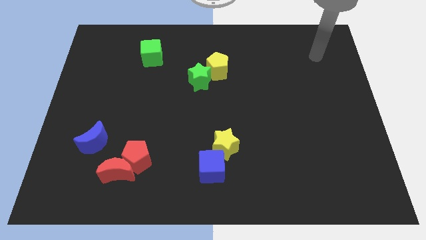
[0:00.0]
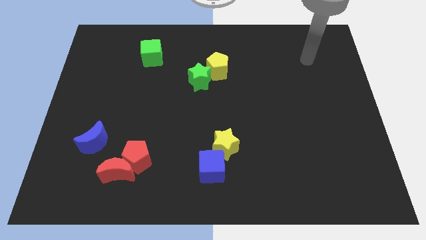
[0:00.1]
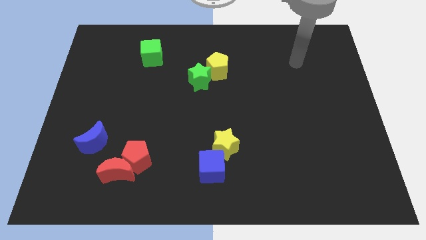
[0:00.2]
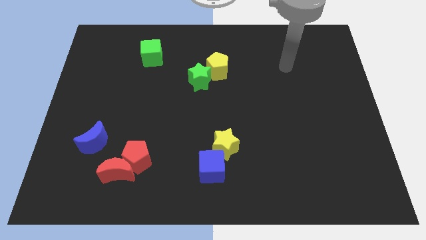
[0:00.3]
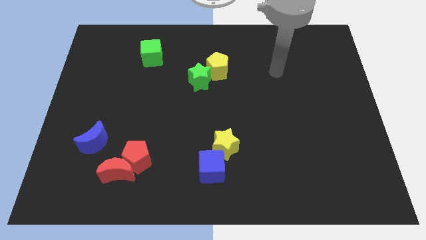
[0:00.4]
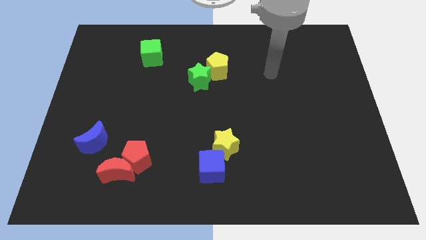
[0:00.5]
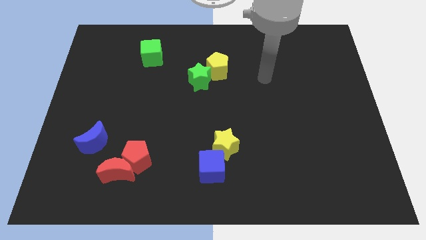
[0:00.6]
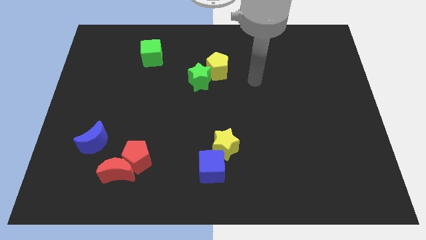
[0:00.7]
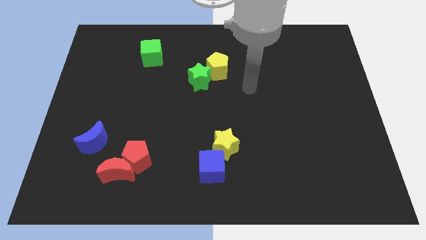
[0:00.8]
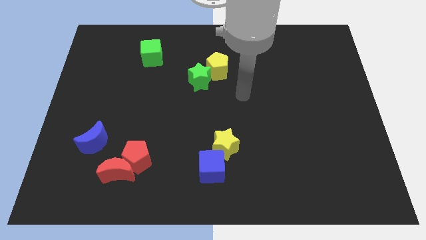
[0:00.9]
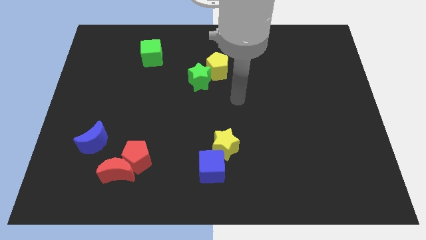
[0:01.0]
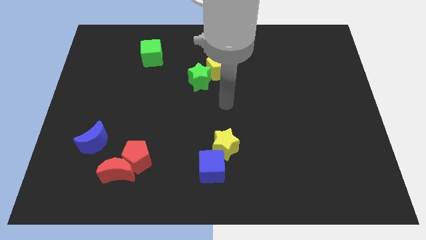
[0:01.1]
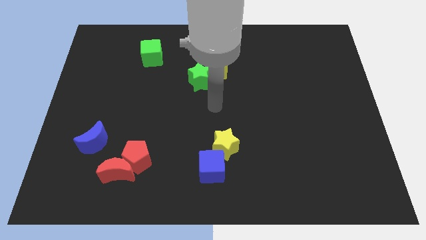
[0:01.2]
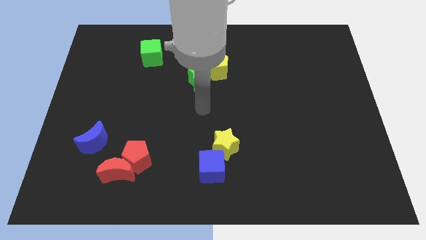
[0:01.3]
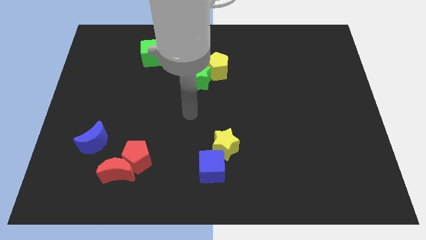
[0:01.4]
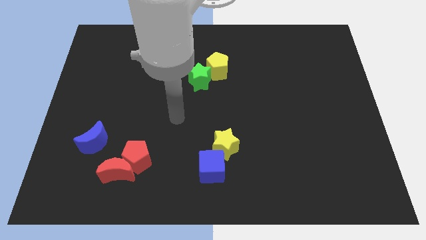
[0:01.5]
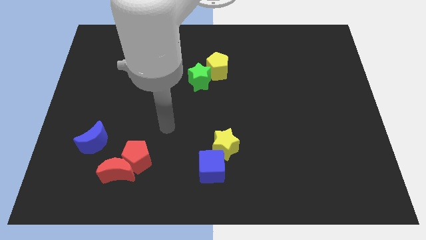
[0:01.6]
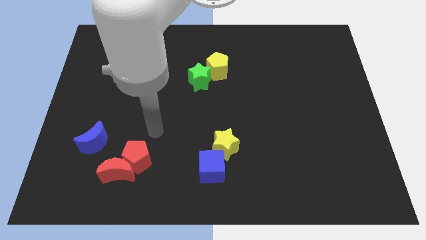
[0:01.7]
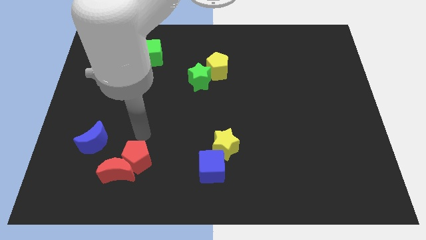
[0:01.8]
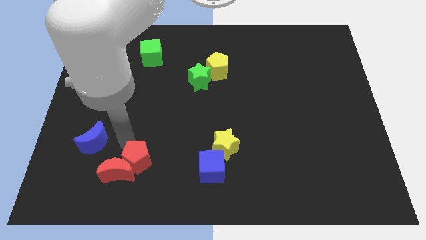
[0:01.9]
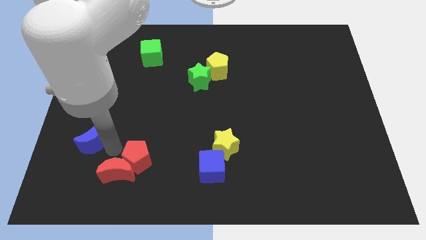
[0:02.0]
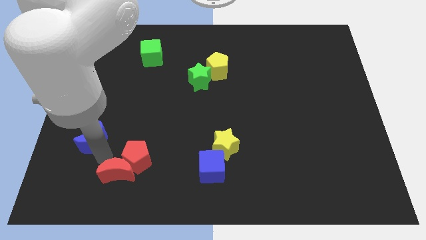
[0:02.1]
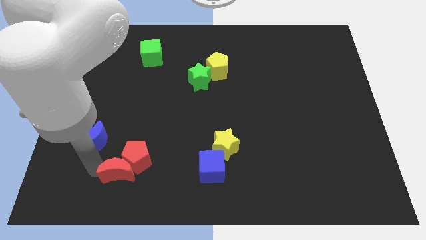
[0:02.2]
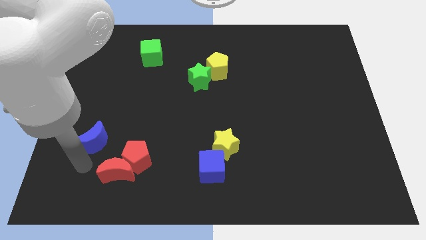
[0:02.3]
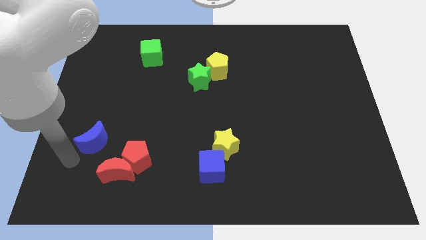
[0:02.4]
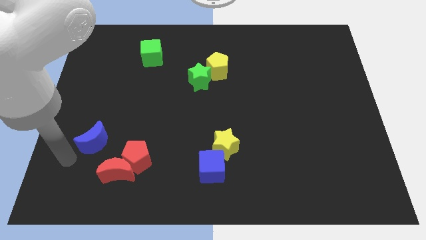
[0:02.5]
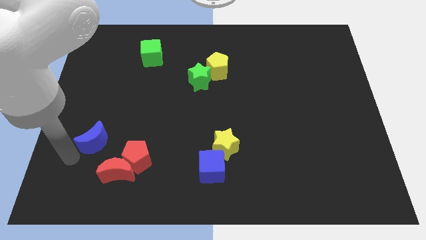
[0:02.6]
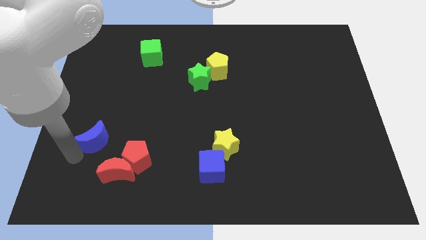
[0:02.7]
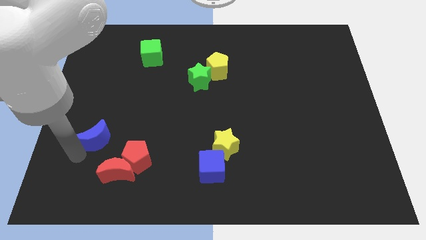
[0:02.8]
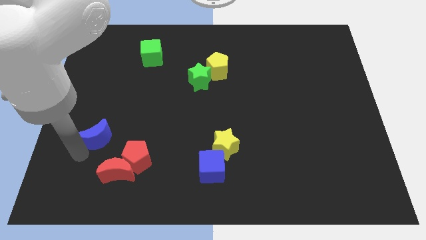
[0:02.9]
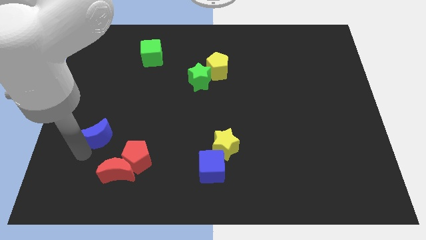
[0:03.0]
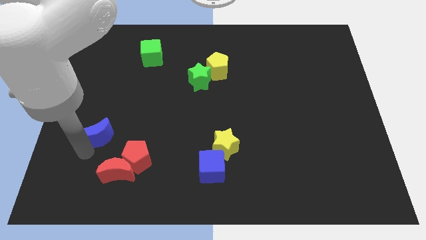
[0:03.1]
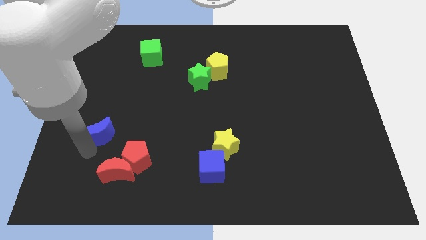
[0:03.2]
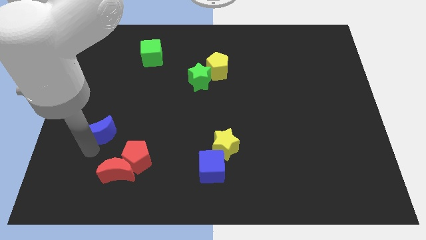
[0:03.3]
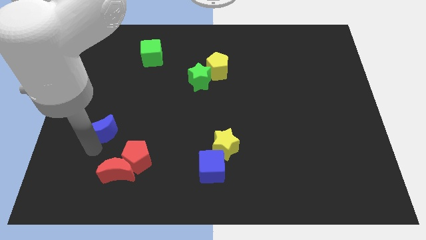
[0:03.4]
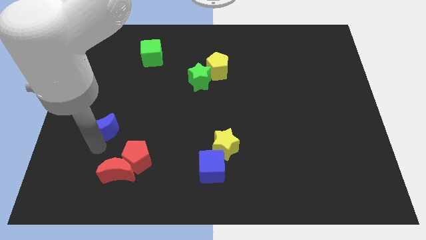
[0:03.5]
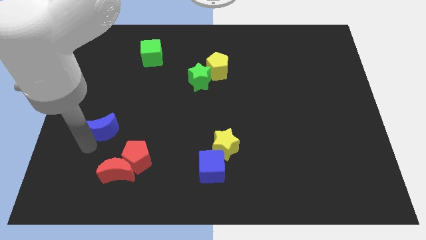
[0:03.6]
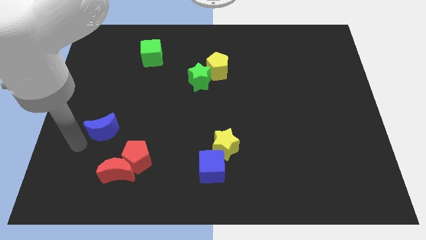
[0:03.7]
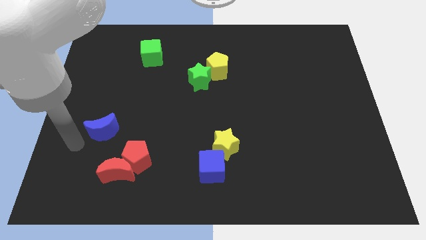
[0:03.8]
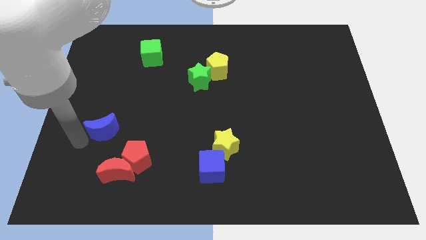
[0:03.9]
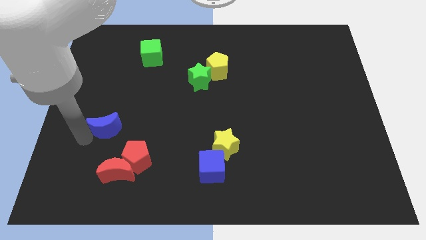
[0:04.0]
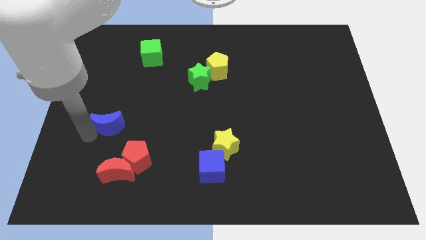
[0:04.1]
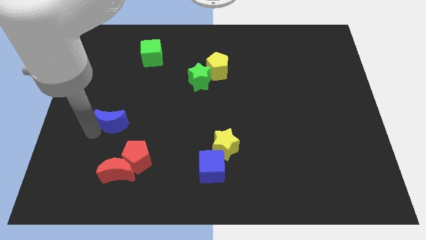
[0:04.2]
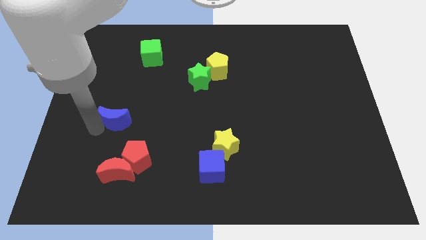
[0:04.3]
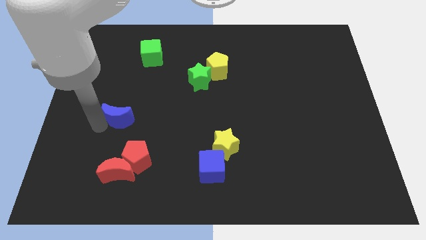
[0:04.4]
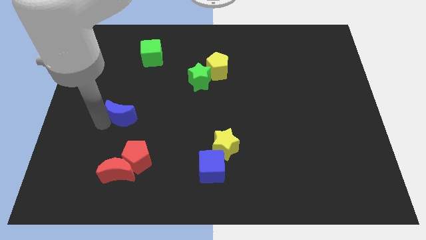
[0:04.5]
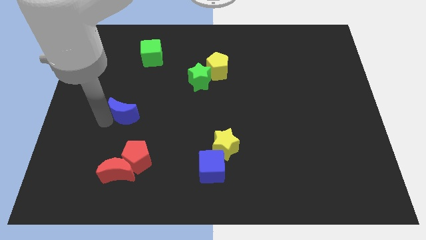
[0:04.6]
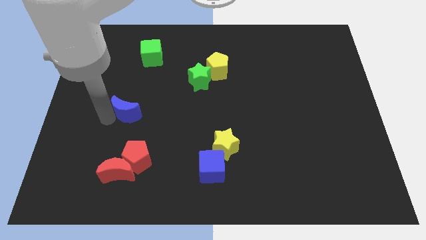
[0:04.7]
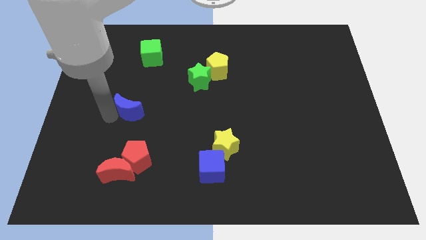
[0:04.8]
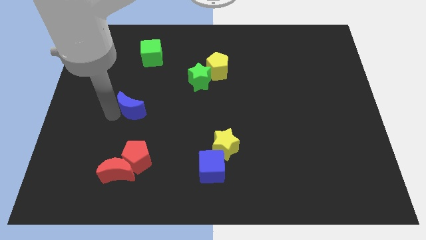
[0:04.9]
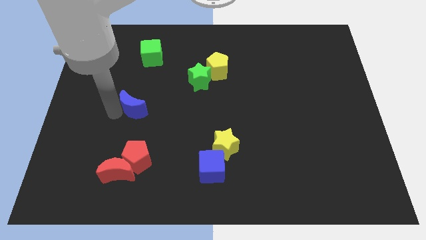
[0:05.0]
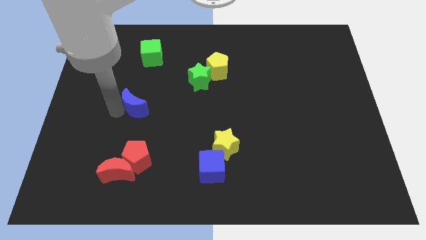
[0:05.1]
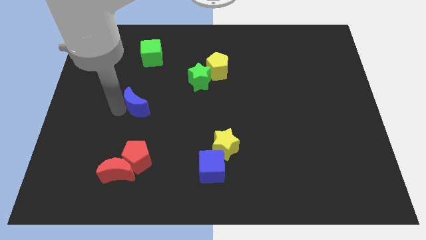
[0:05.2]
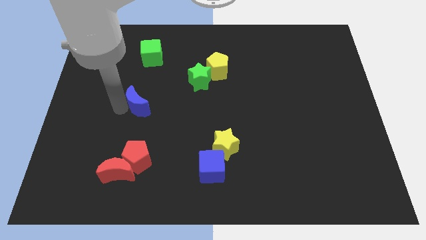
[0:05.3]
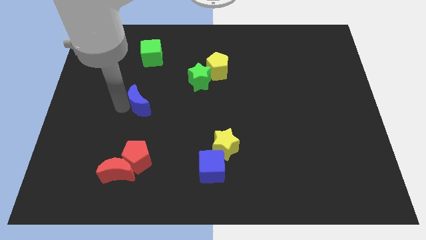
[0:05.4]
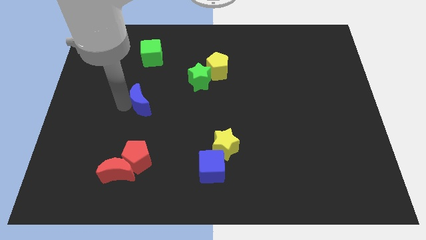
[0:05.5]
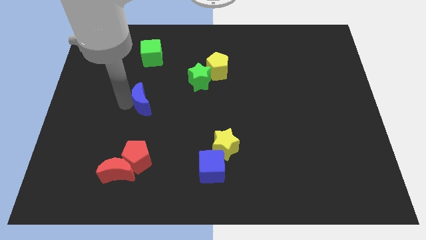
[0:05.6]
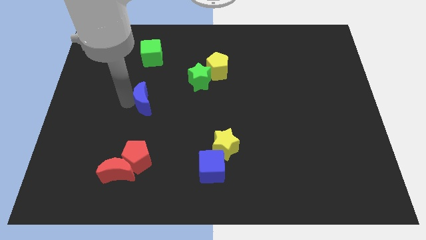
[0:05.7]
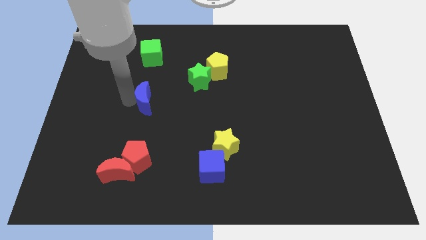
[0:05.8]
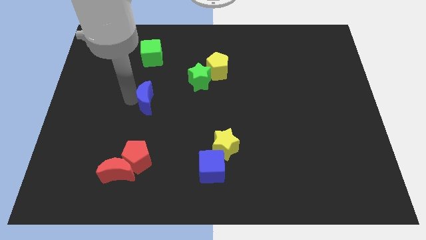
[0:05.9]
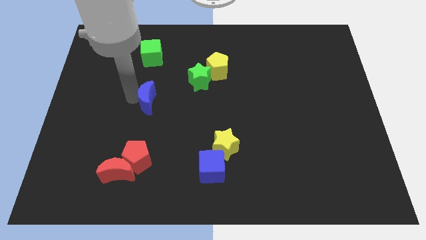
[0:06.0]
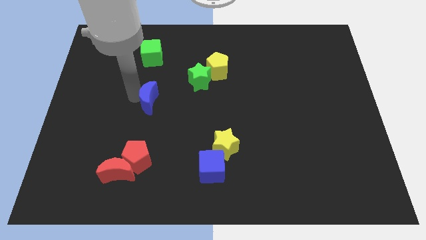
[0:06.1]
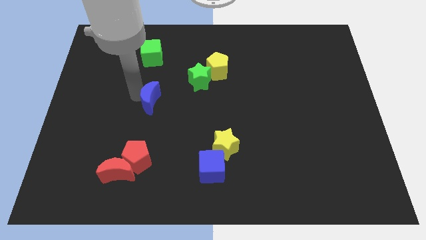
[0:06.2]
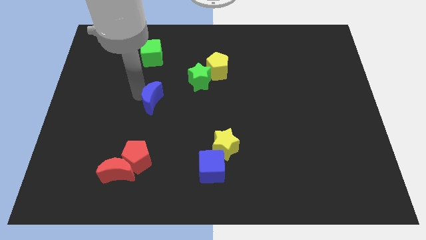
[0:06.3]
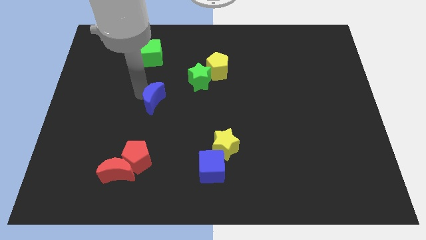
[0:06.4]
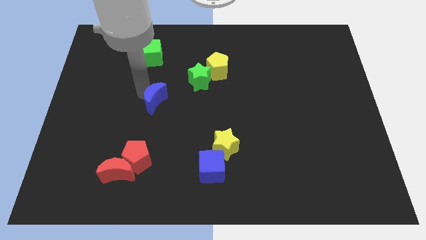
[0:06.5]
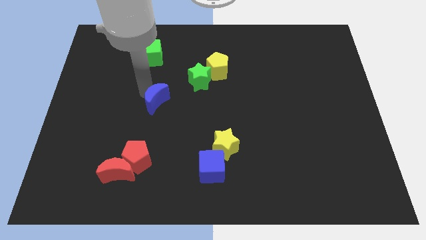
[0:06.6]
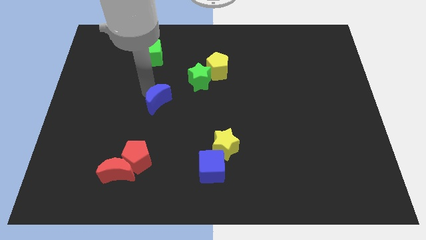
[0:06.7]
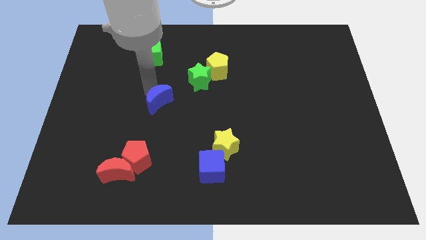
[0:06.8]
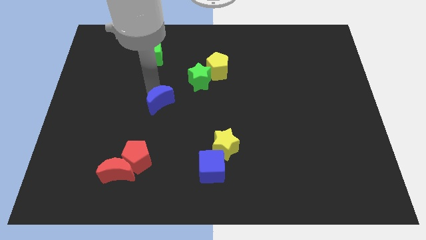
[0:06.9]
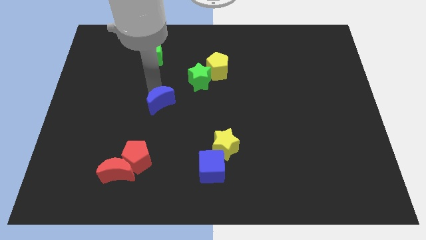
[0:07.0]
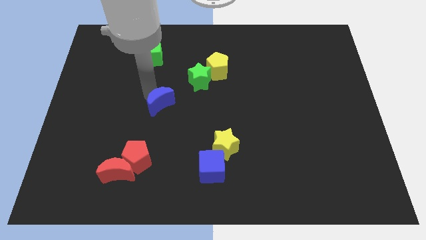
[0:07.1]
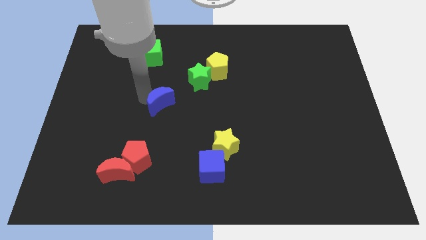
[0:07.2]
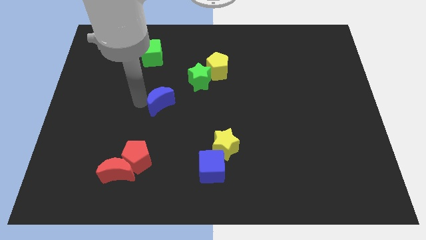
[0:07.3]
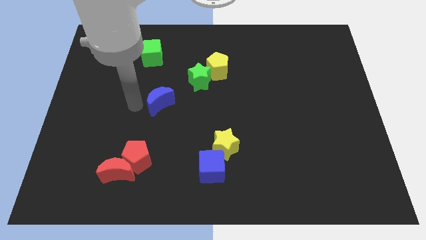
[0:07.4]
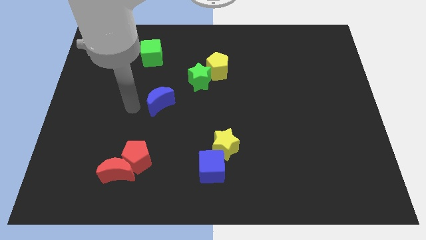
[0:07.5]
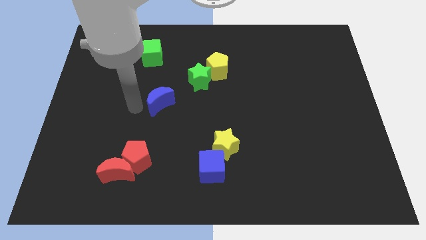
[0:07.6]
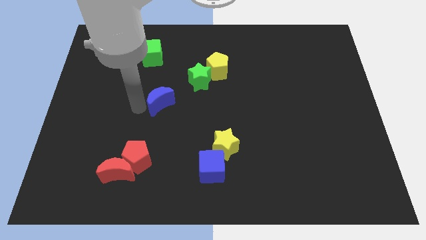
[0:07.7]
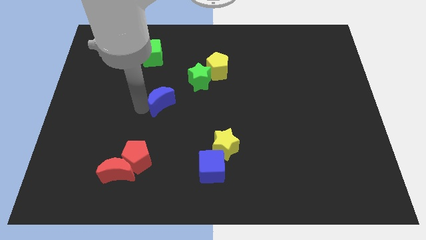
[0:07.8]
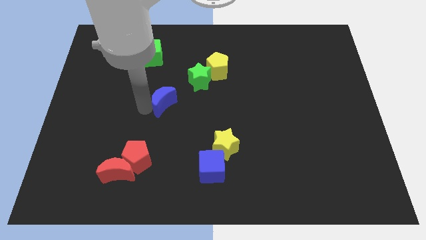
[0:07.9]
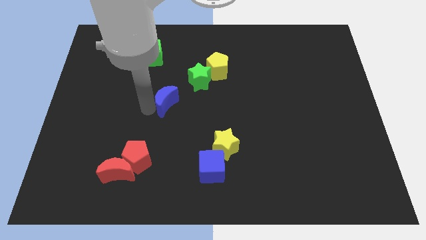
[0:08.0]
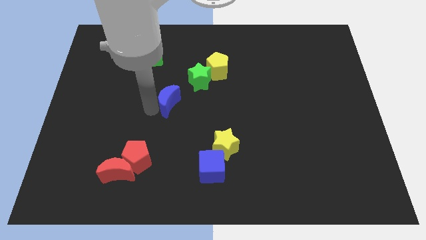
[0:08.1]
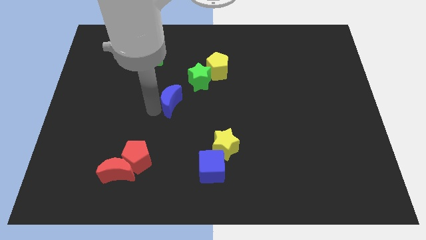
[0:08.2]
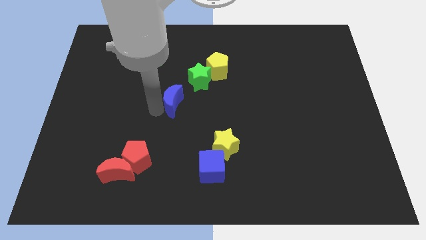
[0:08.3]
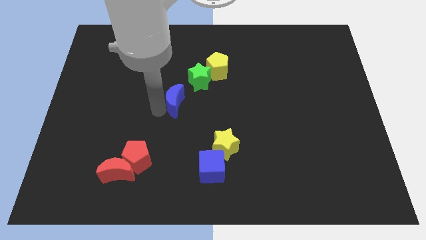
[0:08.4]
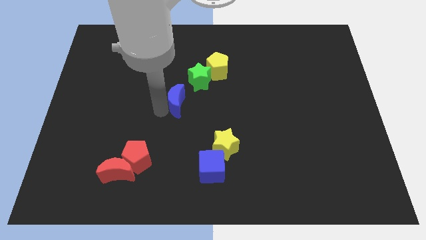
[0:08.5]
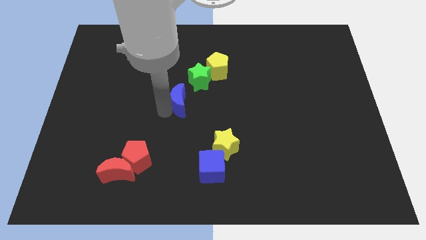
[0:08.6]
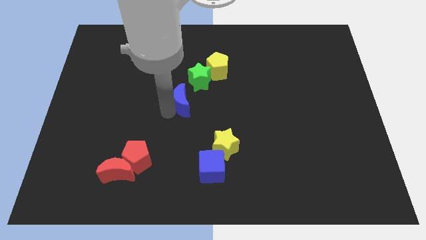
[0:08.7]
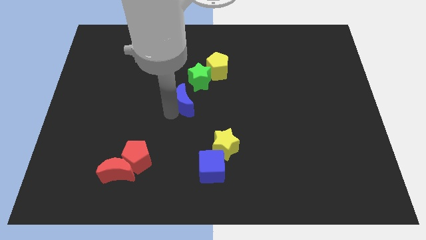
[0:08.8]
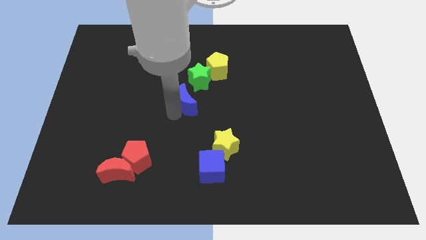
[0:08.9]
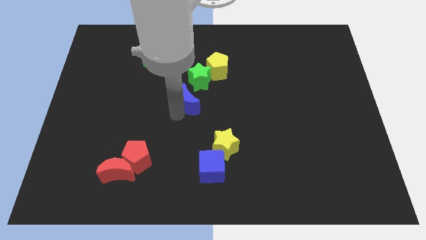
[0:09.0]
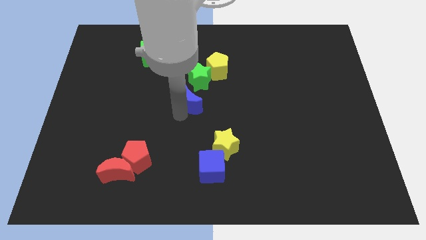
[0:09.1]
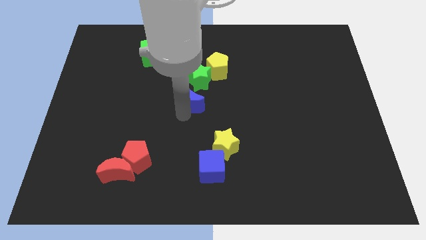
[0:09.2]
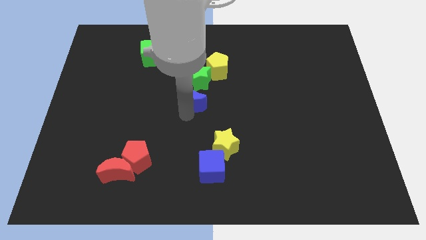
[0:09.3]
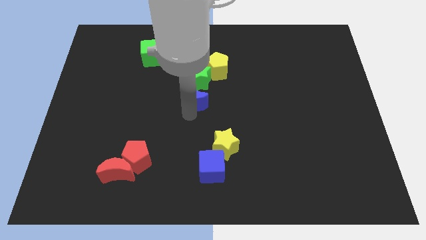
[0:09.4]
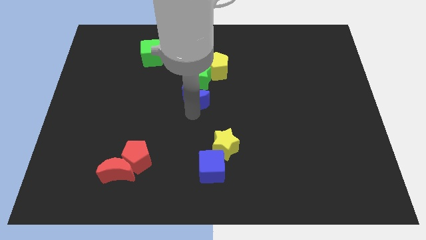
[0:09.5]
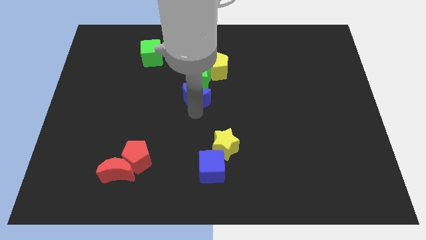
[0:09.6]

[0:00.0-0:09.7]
slide the blue moon next to the green star
